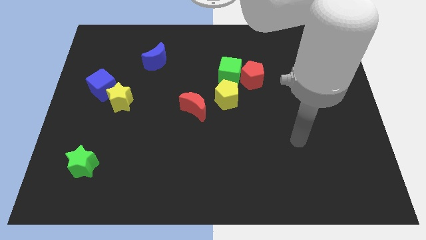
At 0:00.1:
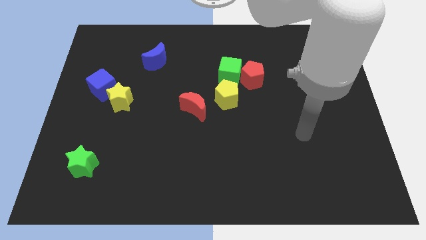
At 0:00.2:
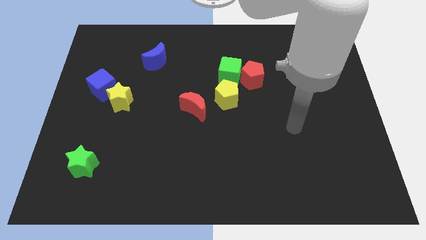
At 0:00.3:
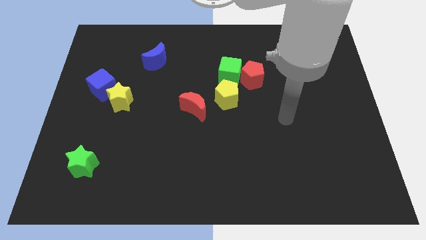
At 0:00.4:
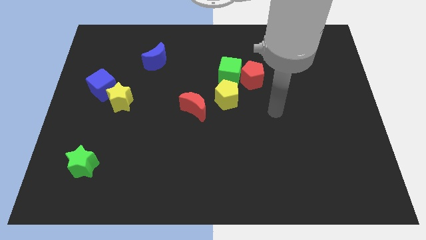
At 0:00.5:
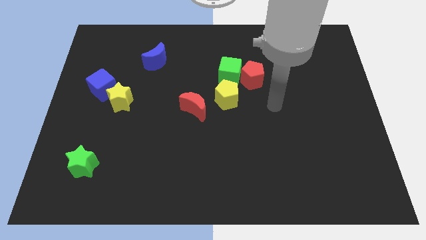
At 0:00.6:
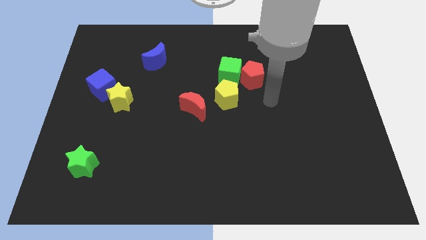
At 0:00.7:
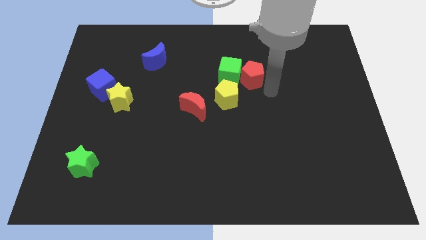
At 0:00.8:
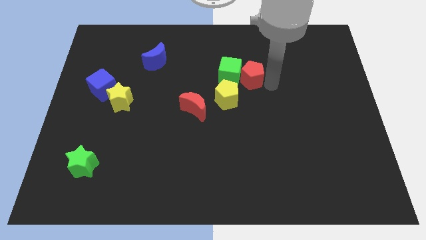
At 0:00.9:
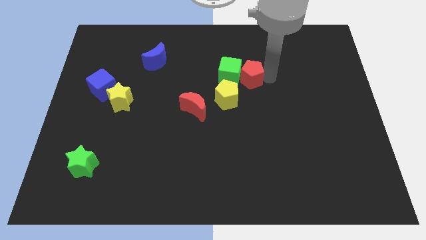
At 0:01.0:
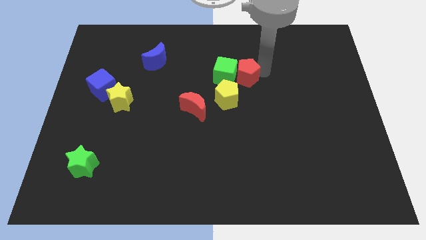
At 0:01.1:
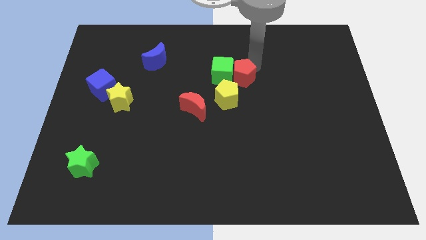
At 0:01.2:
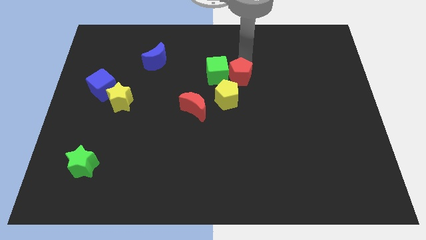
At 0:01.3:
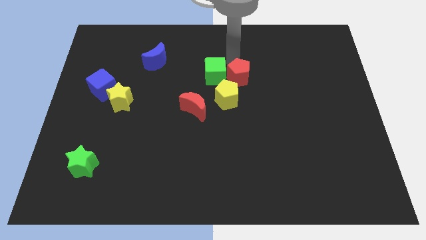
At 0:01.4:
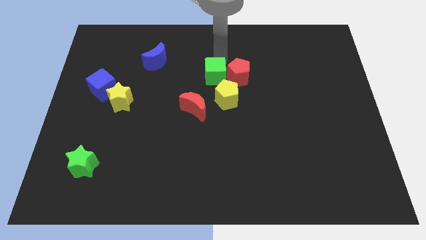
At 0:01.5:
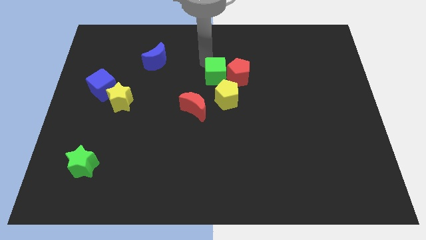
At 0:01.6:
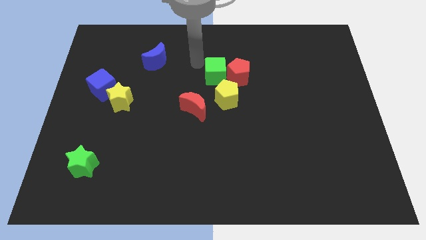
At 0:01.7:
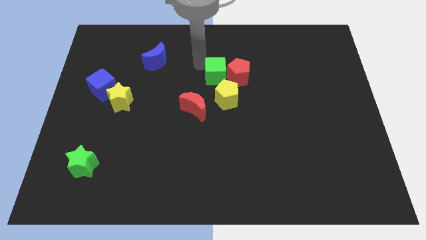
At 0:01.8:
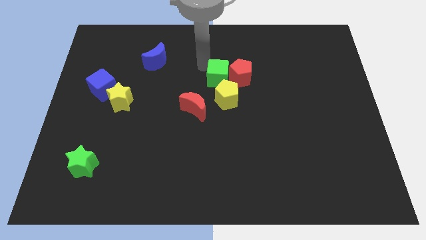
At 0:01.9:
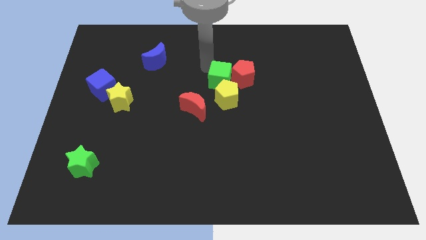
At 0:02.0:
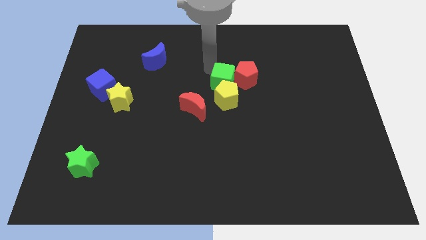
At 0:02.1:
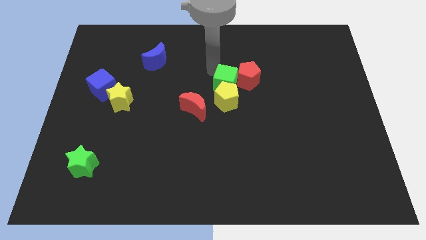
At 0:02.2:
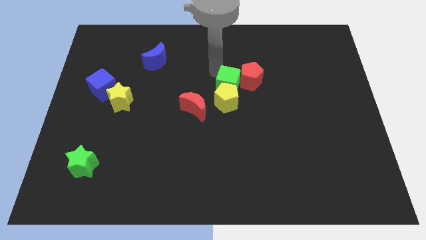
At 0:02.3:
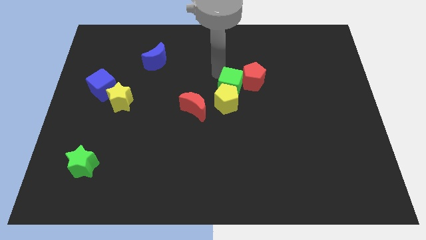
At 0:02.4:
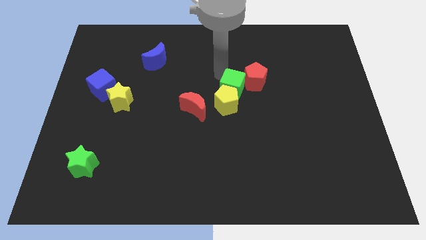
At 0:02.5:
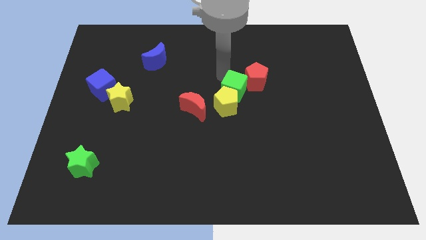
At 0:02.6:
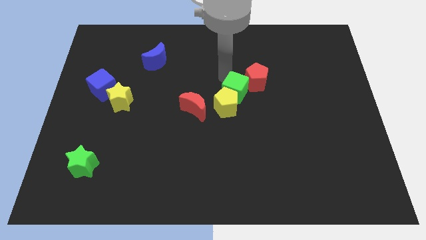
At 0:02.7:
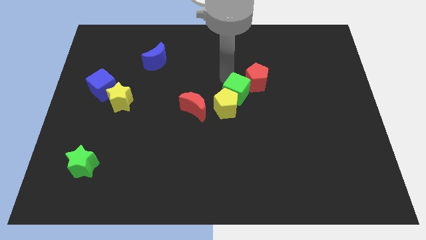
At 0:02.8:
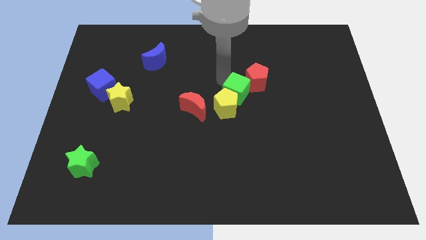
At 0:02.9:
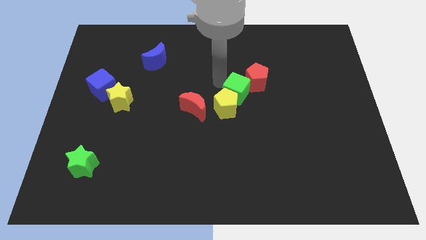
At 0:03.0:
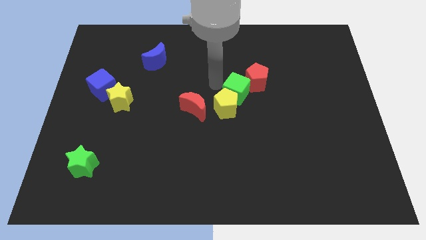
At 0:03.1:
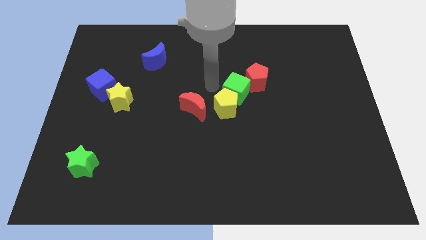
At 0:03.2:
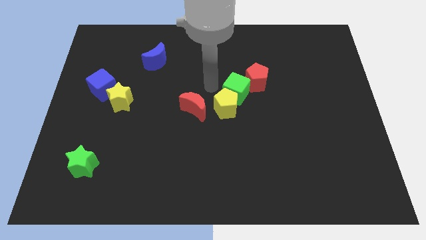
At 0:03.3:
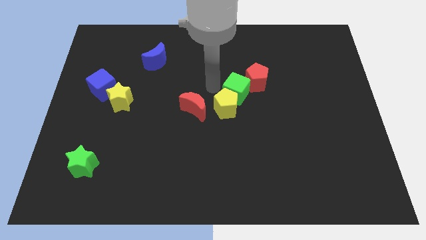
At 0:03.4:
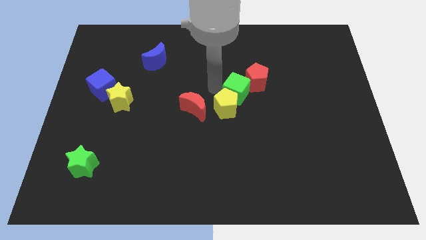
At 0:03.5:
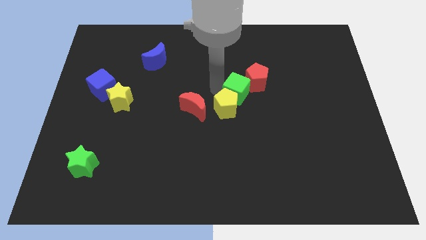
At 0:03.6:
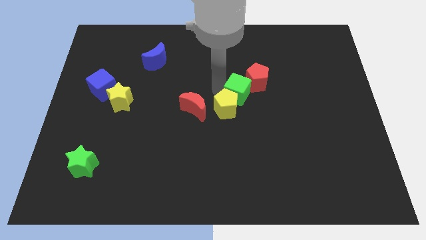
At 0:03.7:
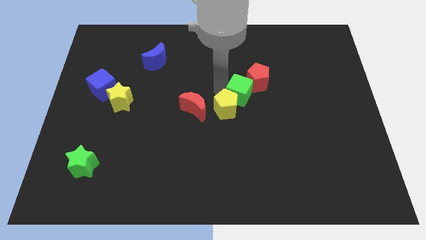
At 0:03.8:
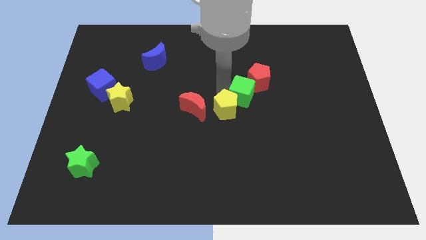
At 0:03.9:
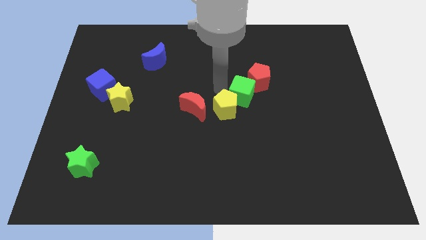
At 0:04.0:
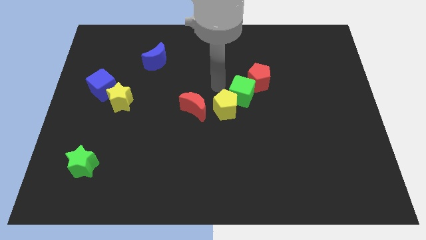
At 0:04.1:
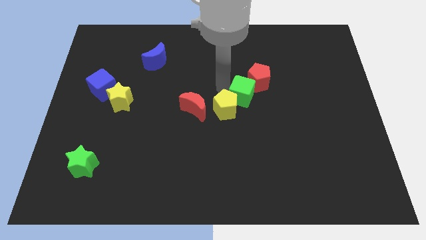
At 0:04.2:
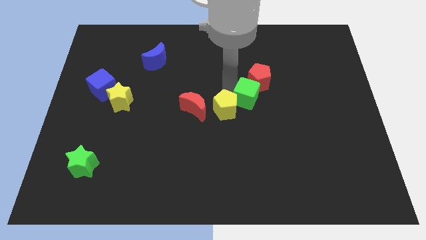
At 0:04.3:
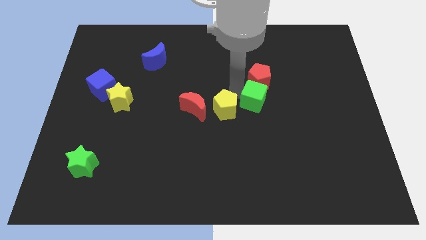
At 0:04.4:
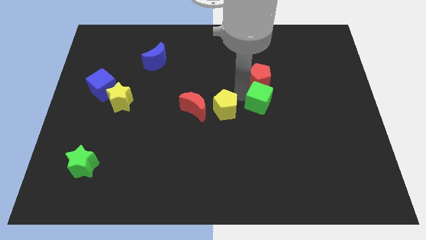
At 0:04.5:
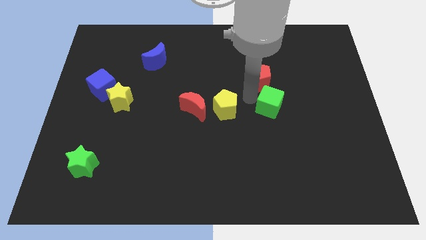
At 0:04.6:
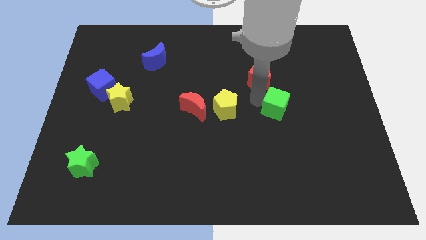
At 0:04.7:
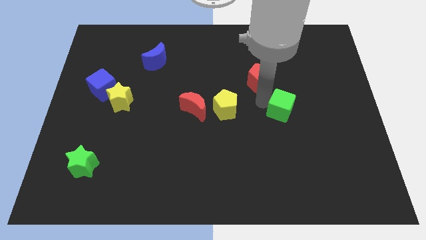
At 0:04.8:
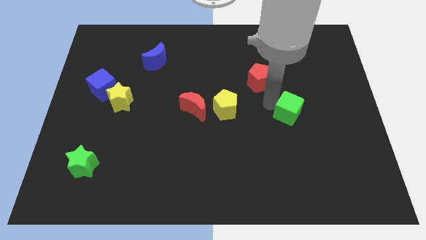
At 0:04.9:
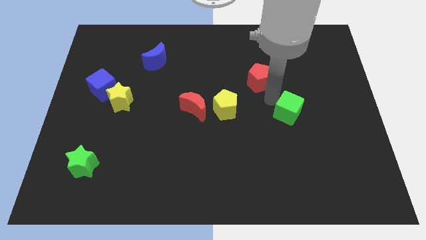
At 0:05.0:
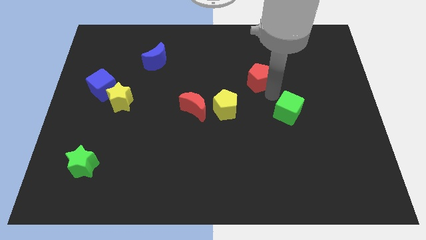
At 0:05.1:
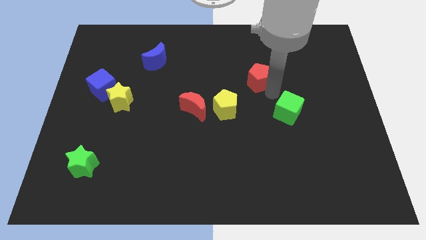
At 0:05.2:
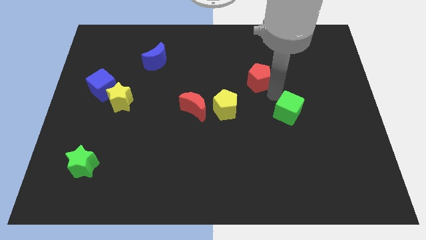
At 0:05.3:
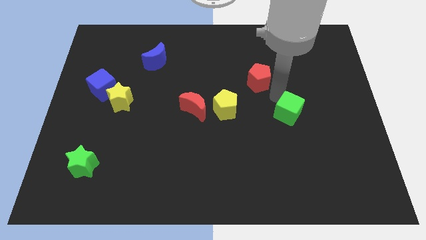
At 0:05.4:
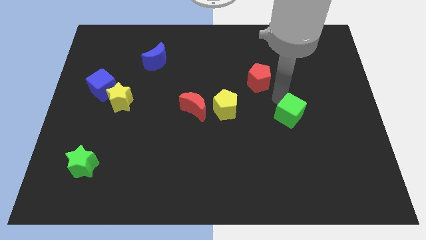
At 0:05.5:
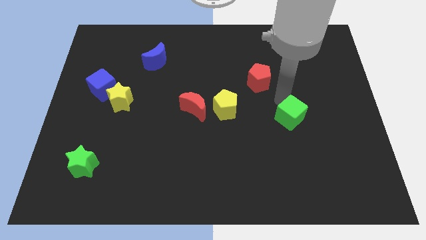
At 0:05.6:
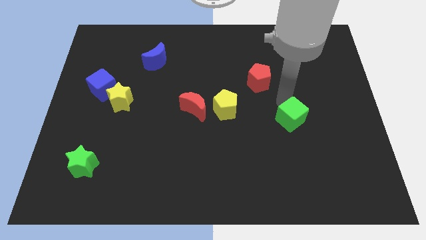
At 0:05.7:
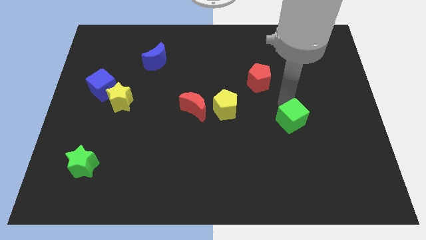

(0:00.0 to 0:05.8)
slide the green cube downwards and right

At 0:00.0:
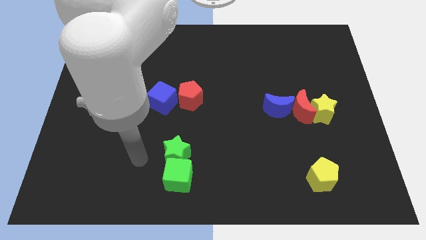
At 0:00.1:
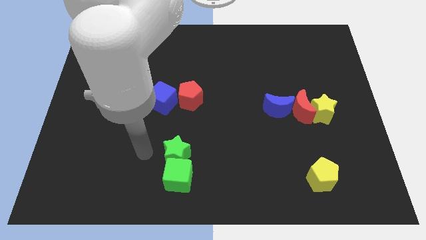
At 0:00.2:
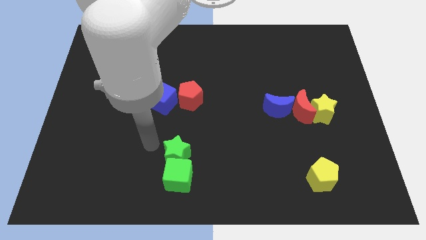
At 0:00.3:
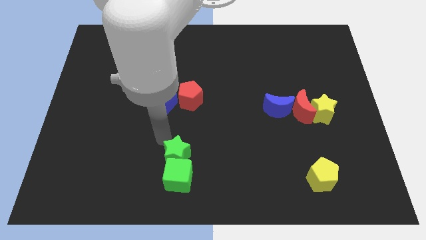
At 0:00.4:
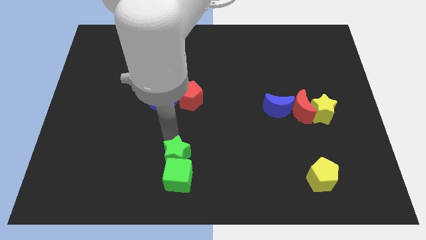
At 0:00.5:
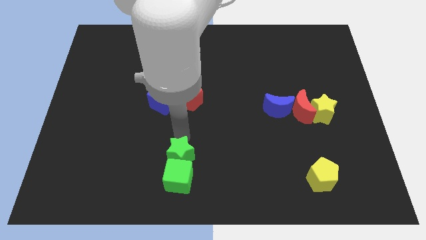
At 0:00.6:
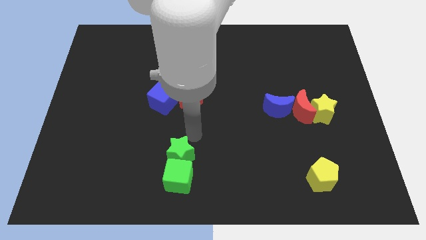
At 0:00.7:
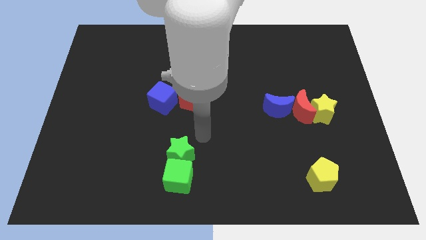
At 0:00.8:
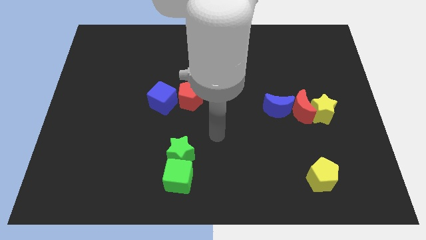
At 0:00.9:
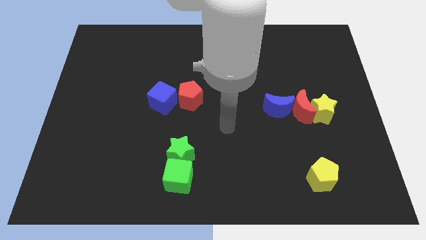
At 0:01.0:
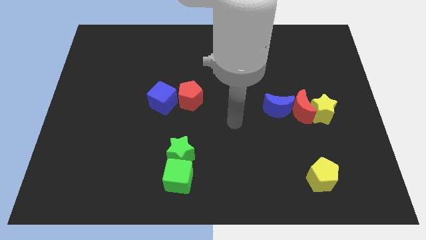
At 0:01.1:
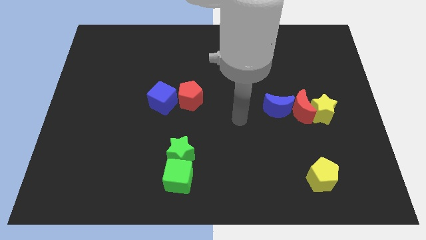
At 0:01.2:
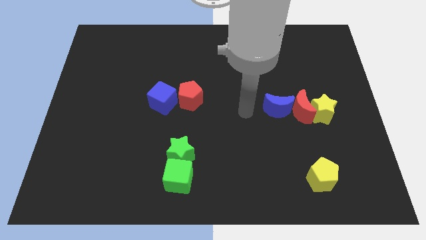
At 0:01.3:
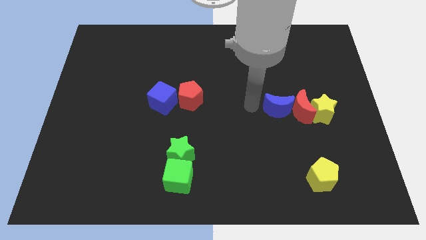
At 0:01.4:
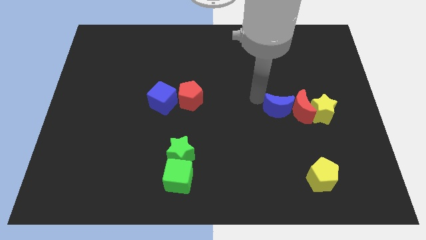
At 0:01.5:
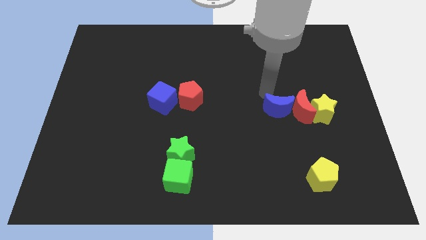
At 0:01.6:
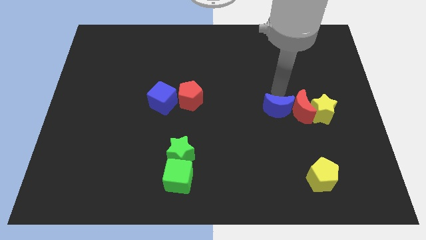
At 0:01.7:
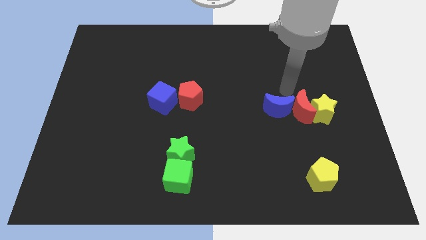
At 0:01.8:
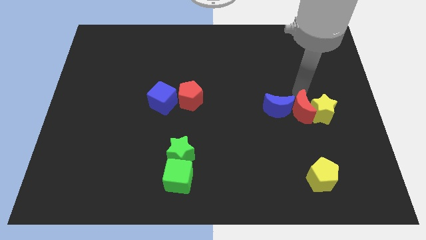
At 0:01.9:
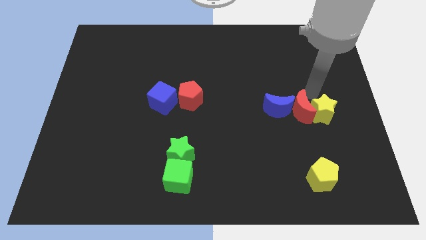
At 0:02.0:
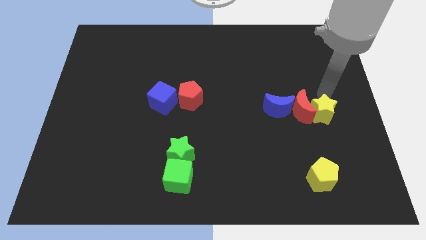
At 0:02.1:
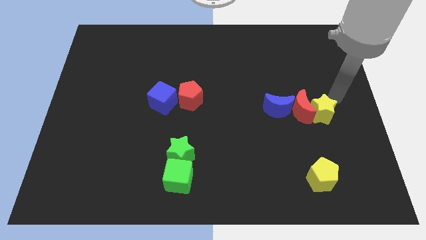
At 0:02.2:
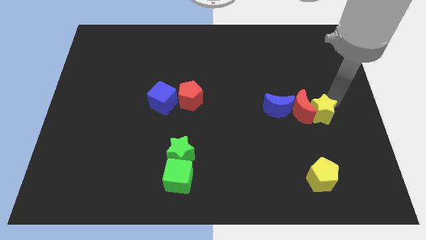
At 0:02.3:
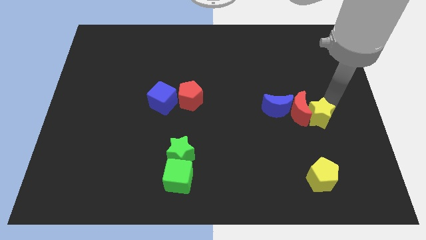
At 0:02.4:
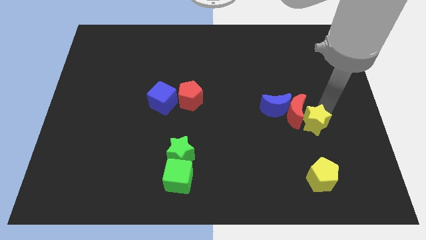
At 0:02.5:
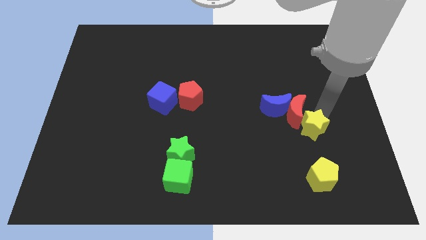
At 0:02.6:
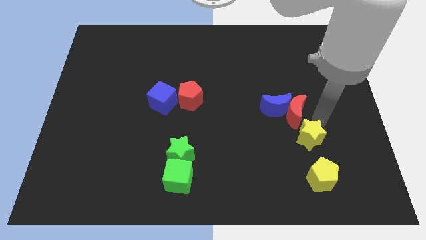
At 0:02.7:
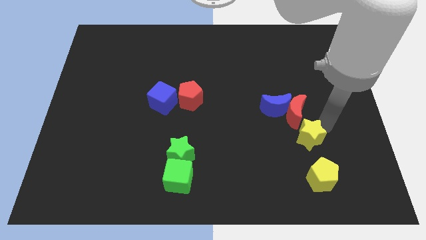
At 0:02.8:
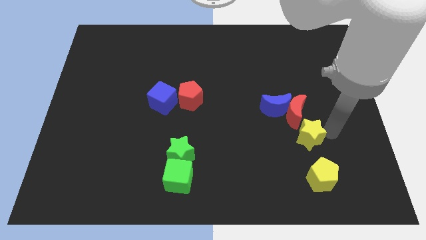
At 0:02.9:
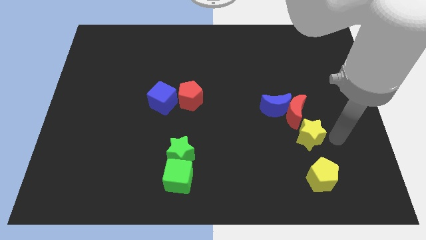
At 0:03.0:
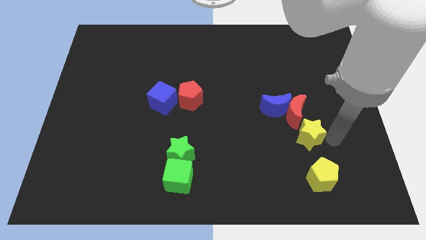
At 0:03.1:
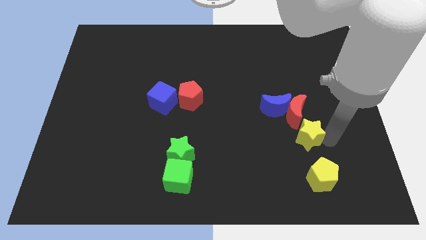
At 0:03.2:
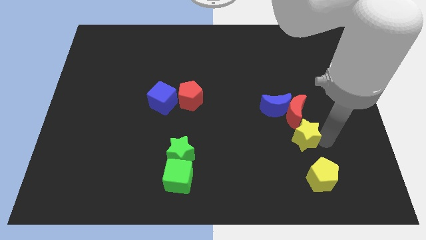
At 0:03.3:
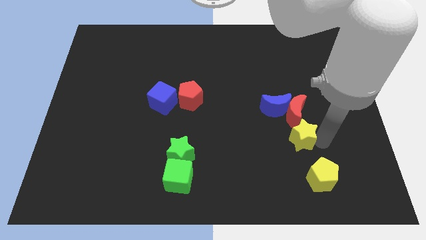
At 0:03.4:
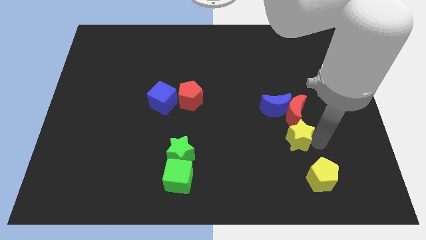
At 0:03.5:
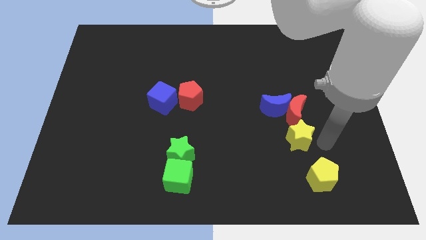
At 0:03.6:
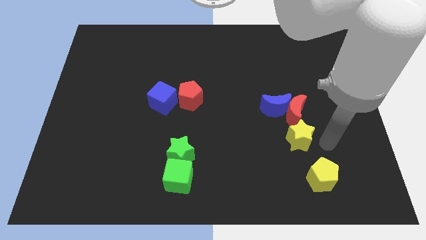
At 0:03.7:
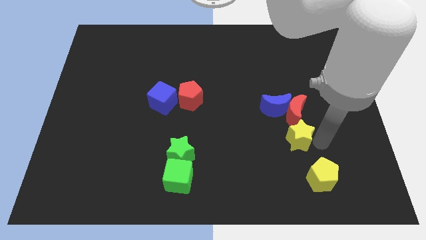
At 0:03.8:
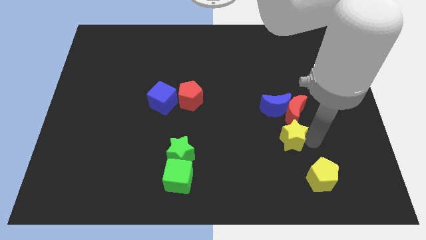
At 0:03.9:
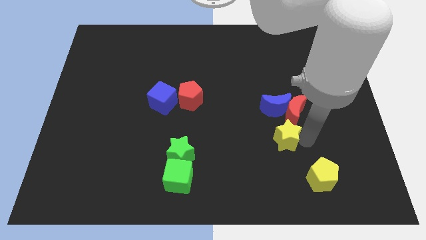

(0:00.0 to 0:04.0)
slightly move the yellow star left
